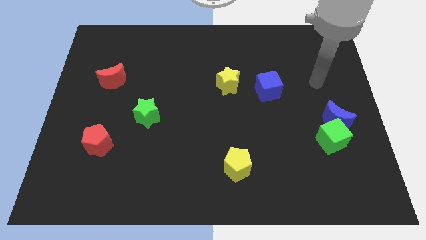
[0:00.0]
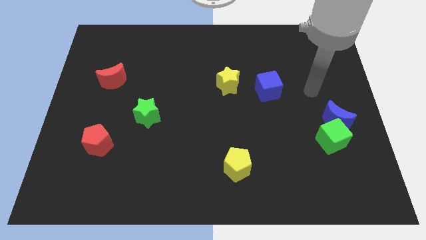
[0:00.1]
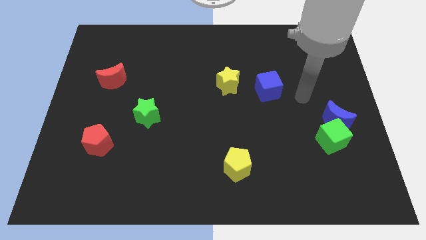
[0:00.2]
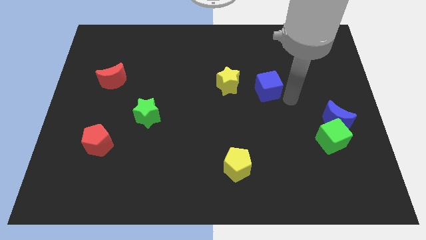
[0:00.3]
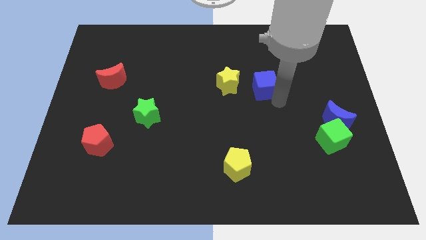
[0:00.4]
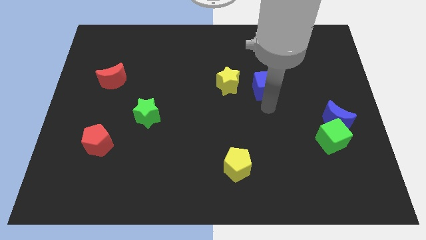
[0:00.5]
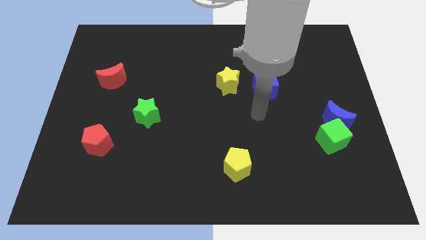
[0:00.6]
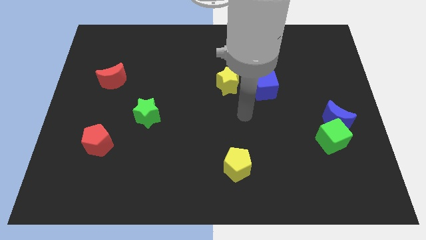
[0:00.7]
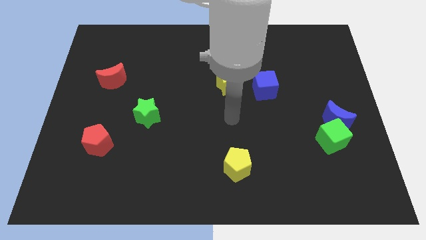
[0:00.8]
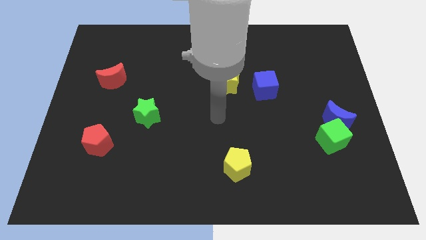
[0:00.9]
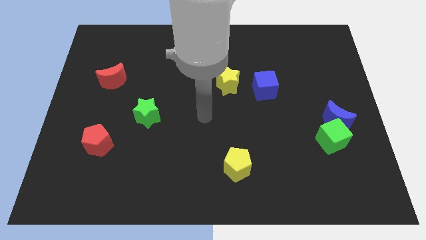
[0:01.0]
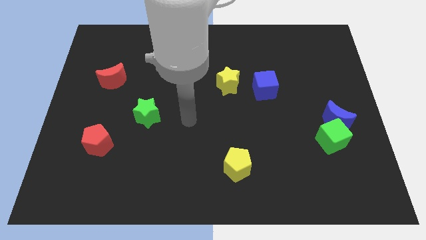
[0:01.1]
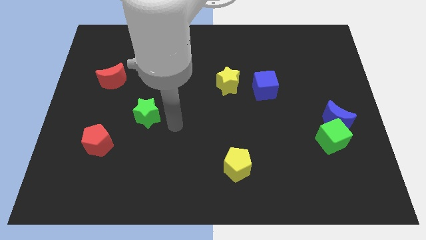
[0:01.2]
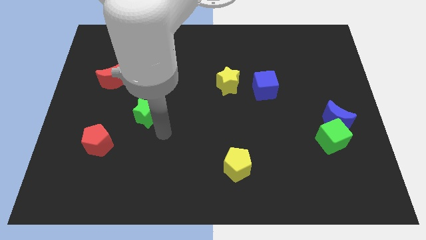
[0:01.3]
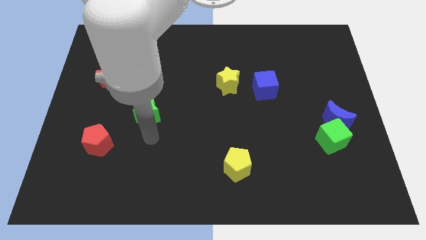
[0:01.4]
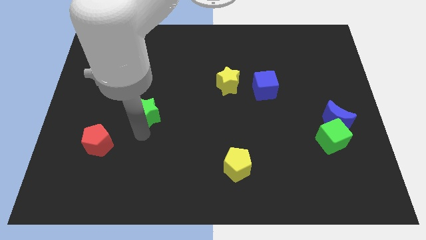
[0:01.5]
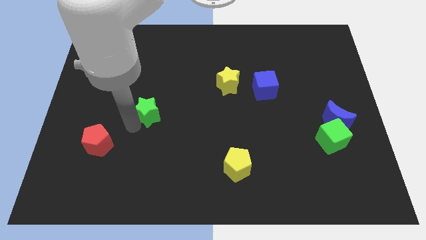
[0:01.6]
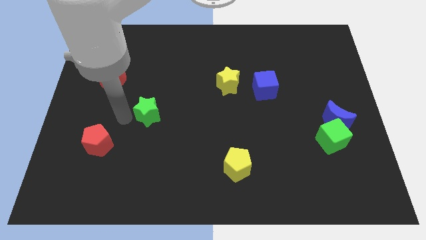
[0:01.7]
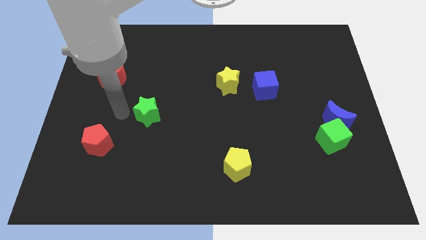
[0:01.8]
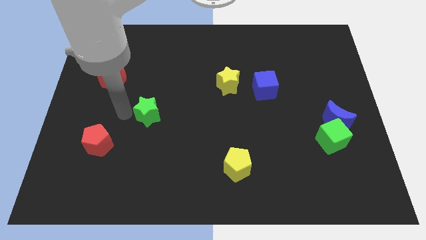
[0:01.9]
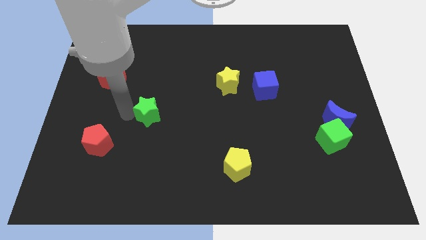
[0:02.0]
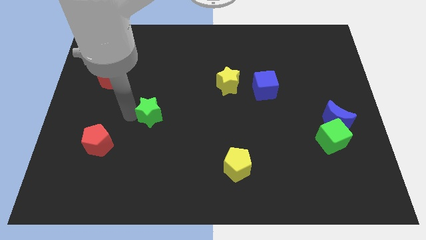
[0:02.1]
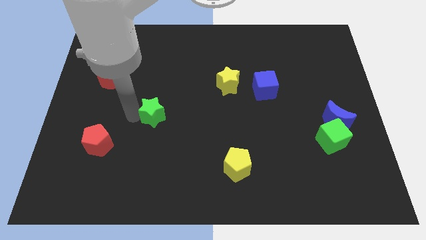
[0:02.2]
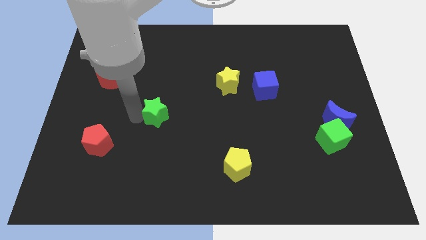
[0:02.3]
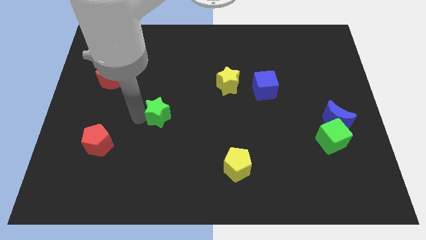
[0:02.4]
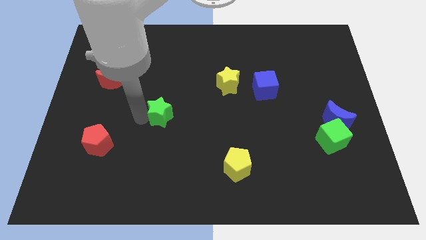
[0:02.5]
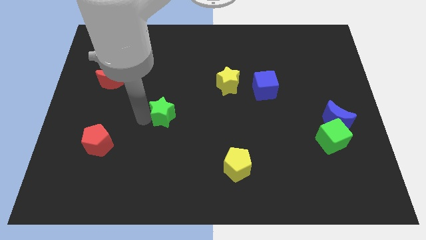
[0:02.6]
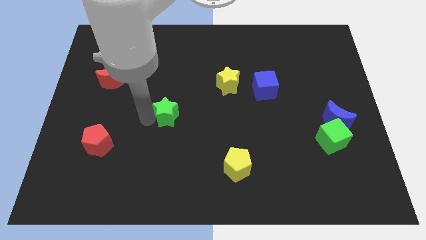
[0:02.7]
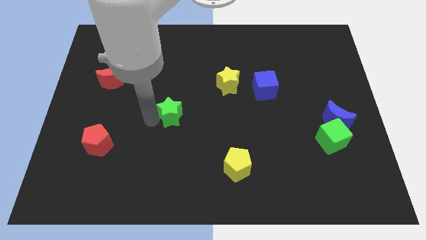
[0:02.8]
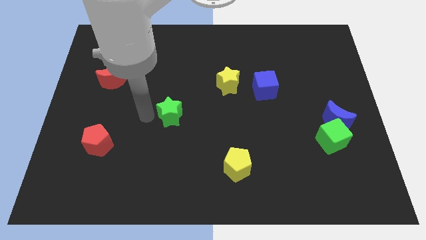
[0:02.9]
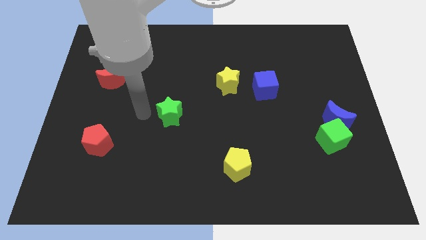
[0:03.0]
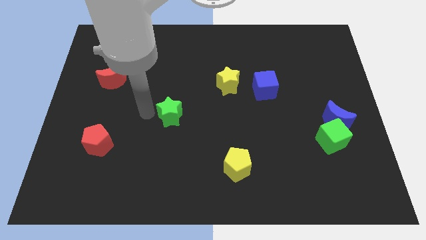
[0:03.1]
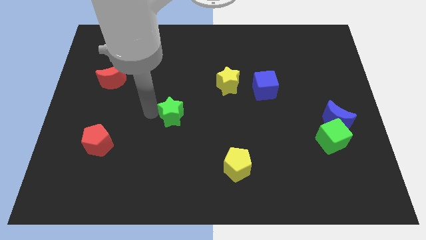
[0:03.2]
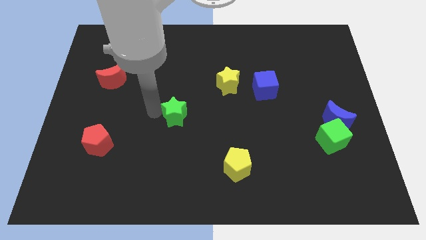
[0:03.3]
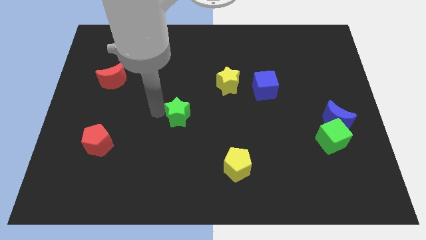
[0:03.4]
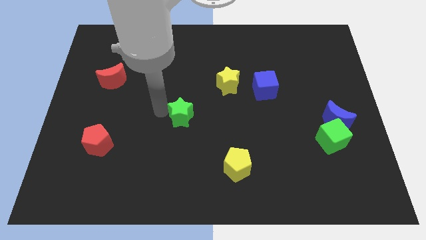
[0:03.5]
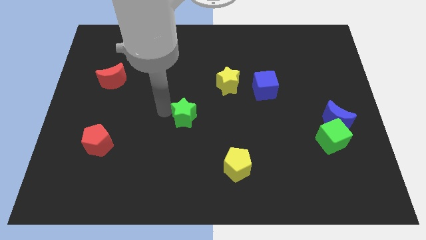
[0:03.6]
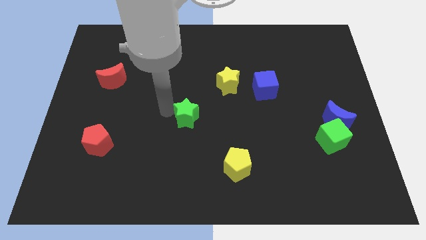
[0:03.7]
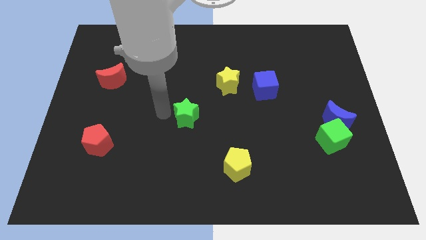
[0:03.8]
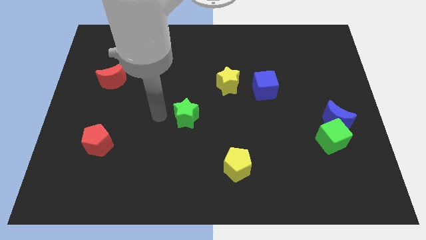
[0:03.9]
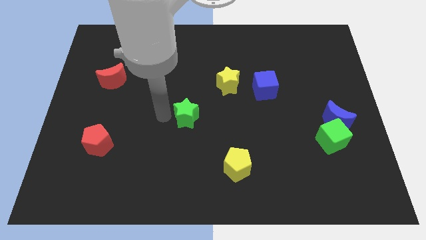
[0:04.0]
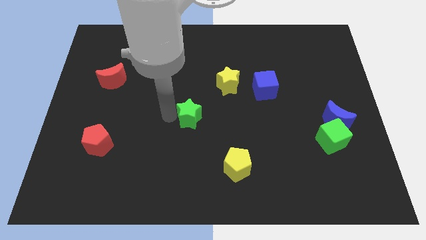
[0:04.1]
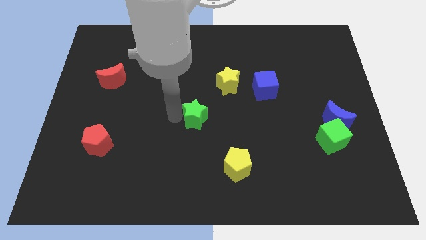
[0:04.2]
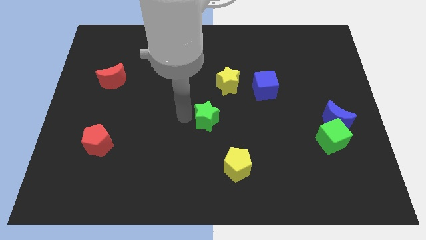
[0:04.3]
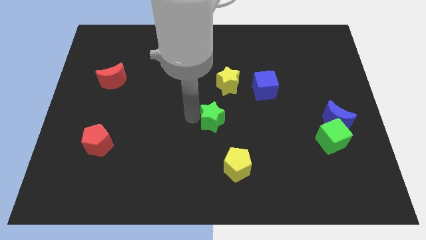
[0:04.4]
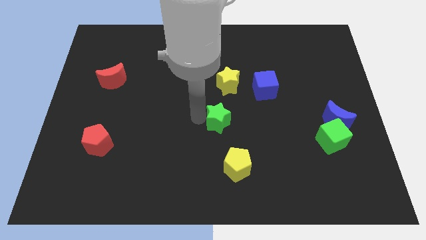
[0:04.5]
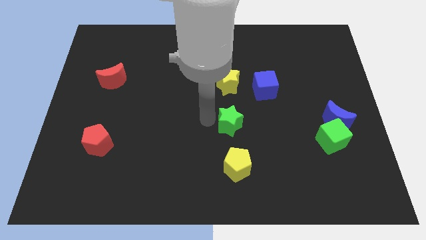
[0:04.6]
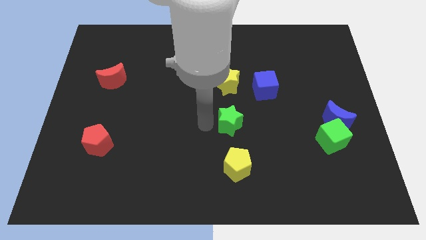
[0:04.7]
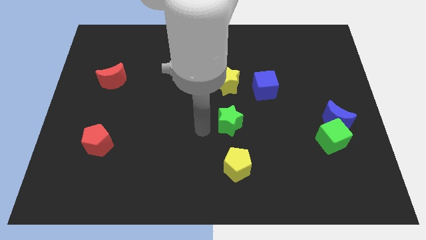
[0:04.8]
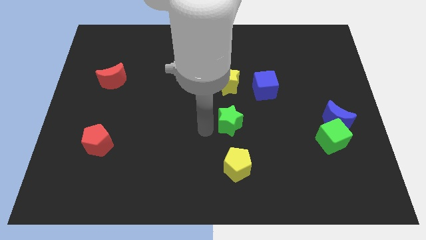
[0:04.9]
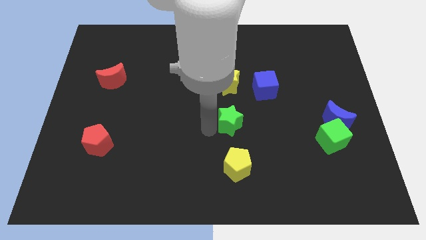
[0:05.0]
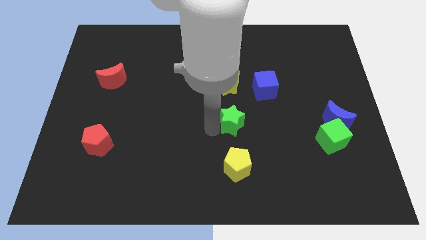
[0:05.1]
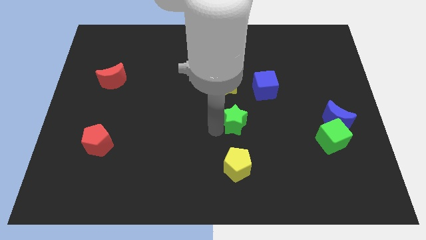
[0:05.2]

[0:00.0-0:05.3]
move the green star right

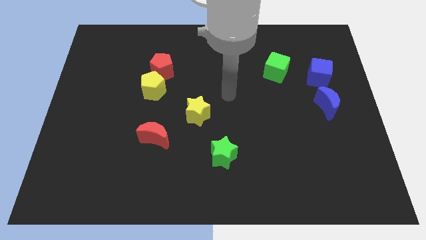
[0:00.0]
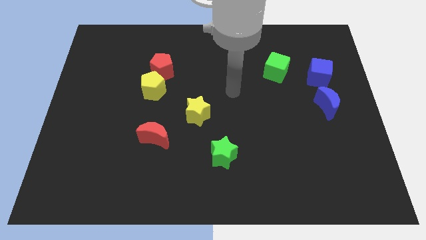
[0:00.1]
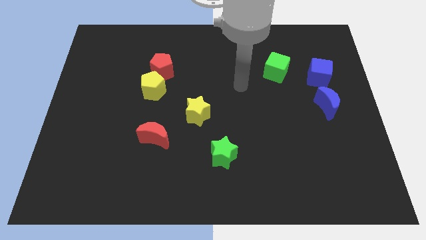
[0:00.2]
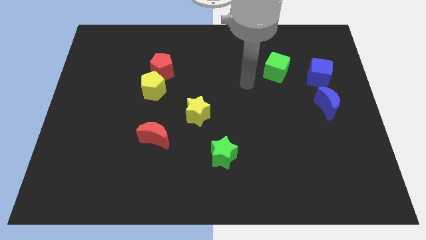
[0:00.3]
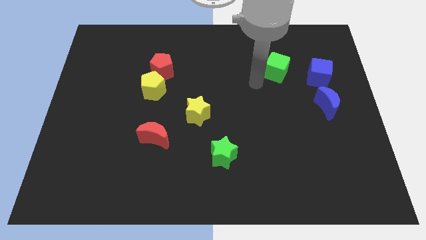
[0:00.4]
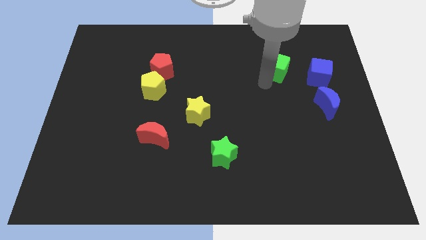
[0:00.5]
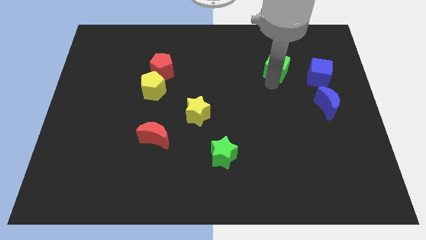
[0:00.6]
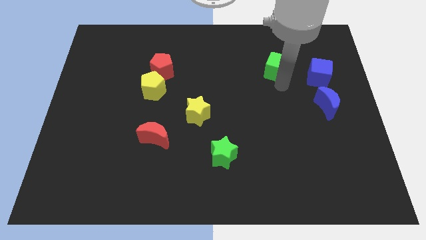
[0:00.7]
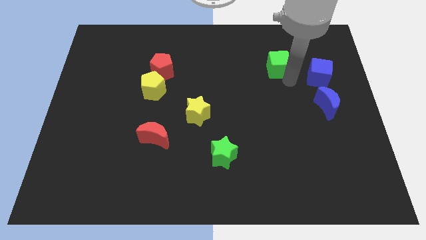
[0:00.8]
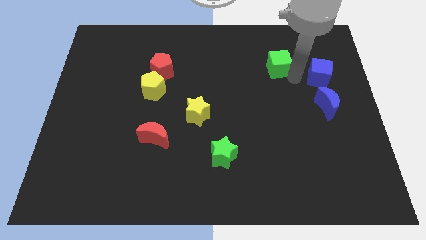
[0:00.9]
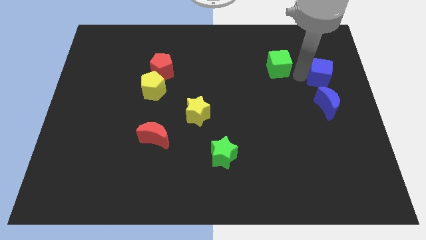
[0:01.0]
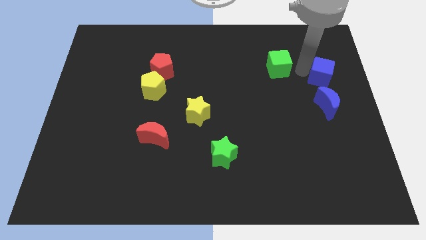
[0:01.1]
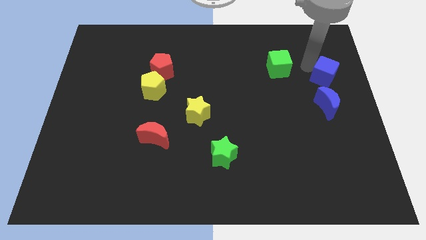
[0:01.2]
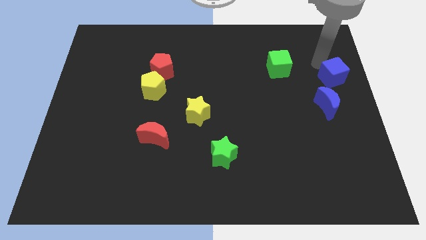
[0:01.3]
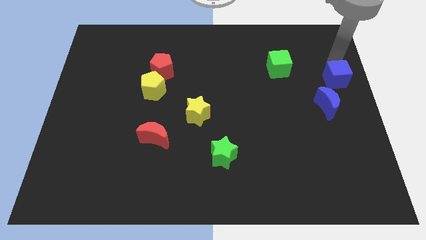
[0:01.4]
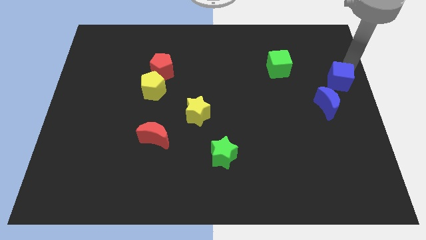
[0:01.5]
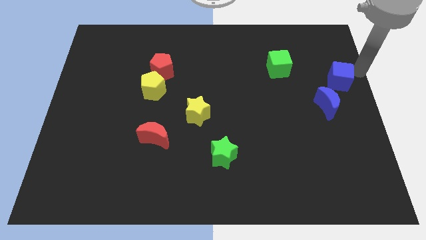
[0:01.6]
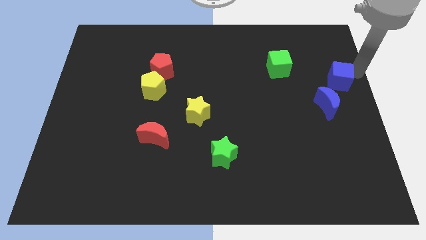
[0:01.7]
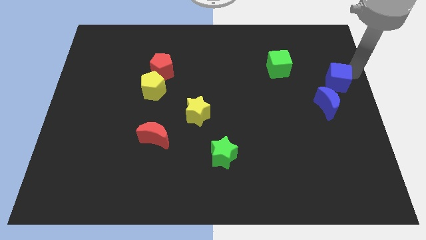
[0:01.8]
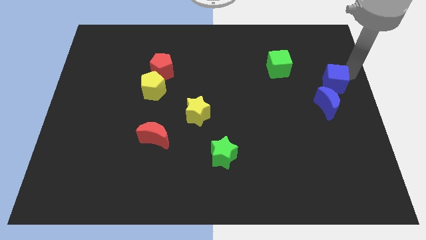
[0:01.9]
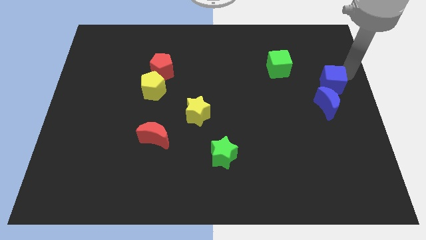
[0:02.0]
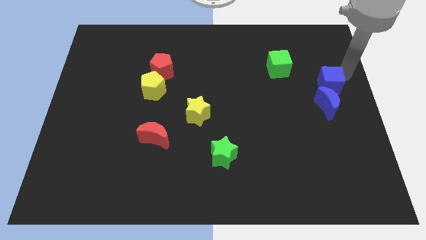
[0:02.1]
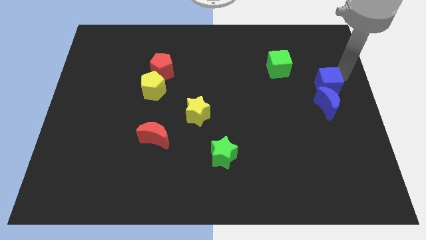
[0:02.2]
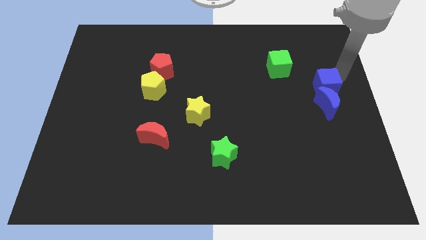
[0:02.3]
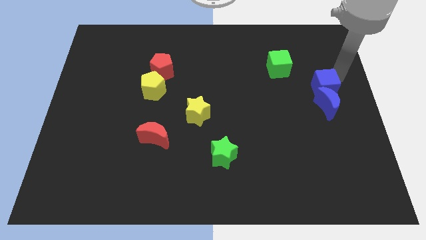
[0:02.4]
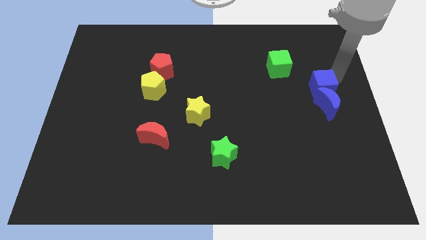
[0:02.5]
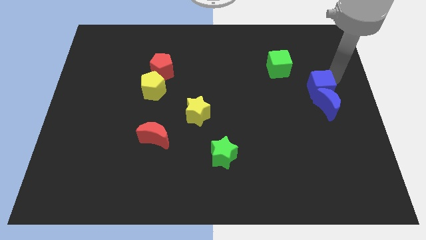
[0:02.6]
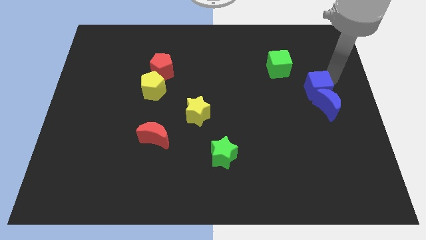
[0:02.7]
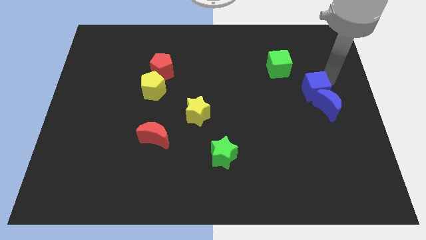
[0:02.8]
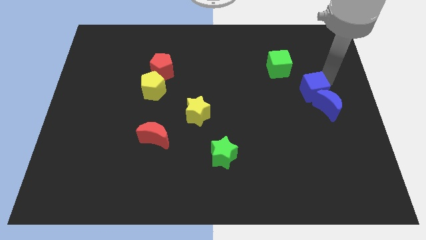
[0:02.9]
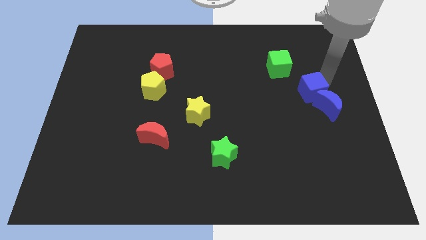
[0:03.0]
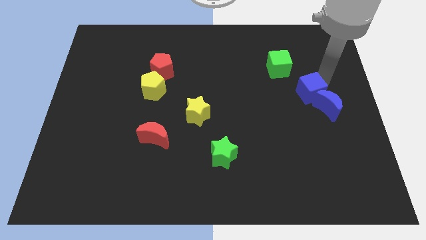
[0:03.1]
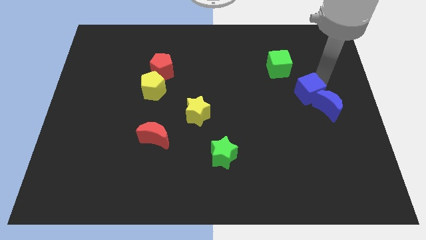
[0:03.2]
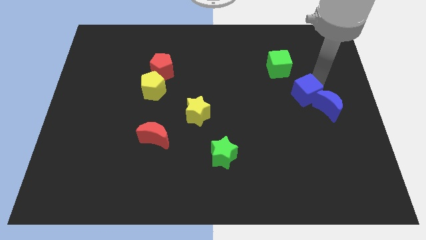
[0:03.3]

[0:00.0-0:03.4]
move the blue cube down and left diagonally slightly
